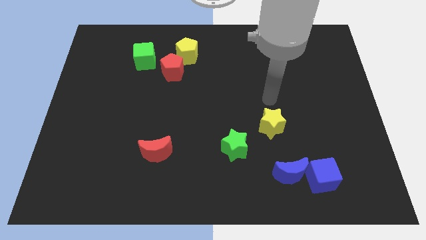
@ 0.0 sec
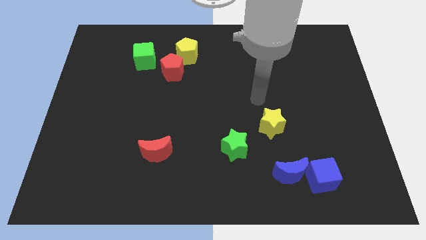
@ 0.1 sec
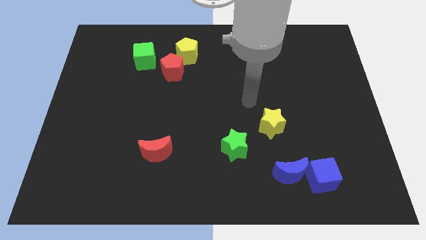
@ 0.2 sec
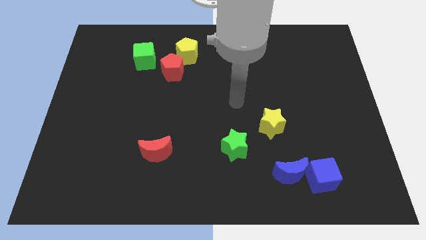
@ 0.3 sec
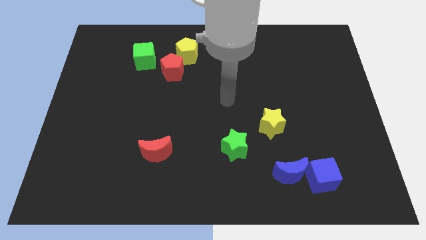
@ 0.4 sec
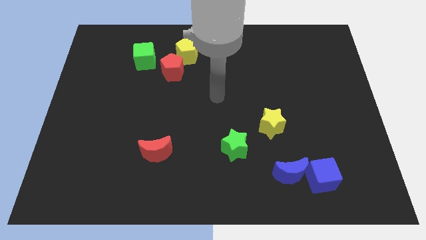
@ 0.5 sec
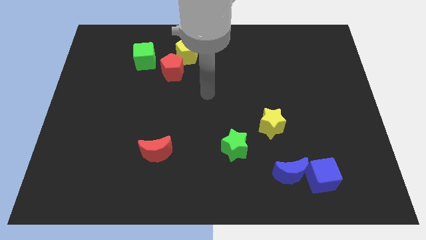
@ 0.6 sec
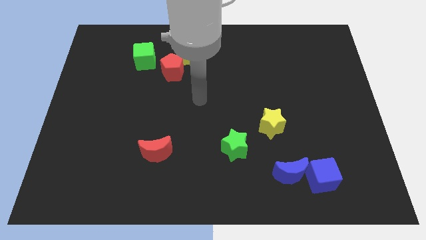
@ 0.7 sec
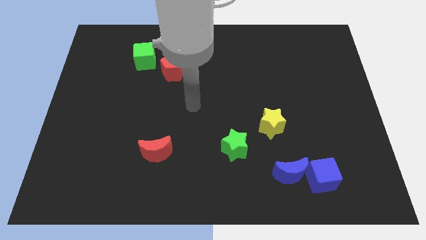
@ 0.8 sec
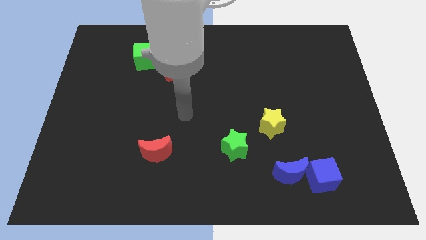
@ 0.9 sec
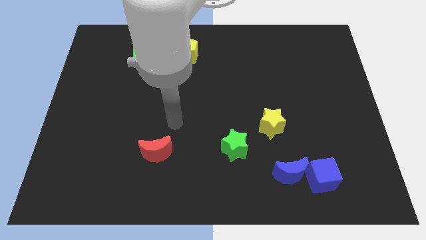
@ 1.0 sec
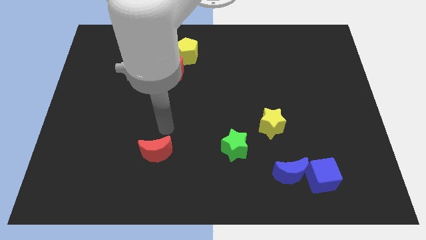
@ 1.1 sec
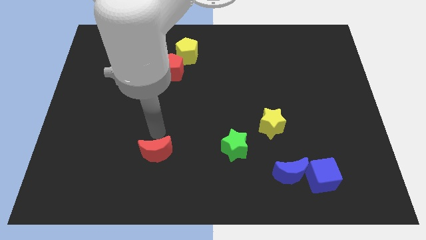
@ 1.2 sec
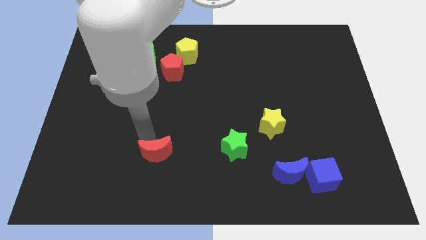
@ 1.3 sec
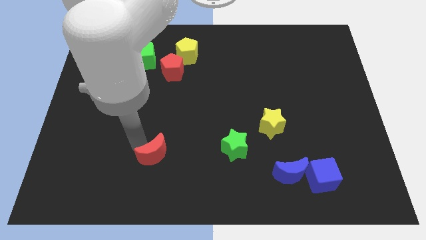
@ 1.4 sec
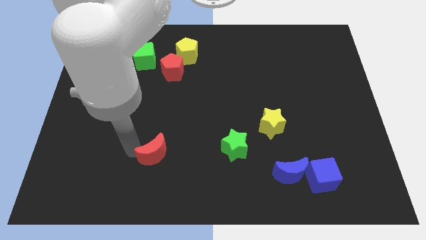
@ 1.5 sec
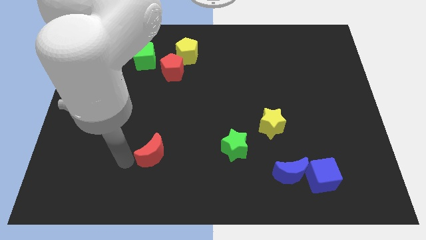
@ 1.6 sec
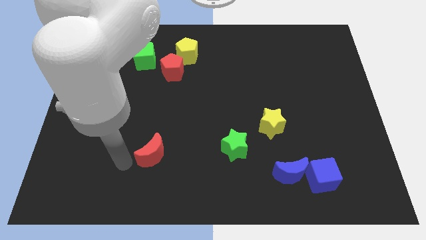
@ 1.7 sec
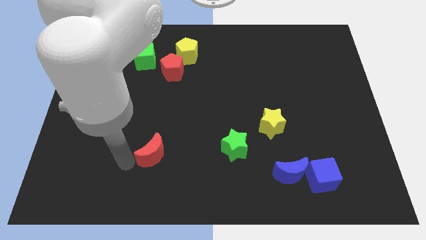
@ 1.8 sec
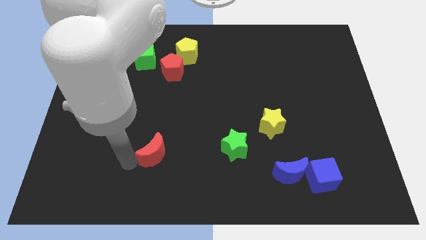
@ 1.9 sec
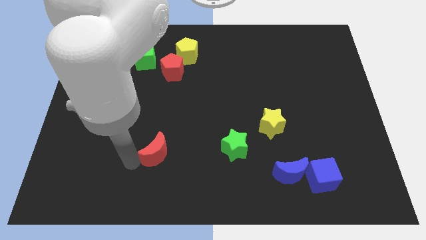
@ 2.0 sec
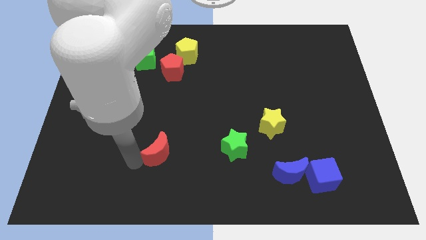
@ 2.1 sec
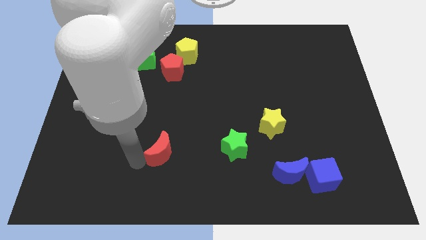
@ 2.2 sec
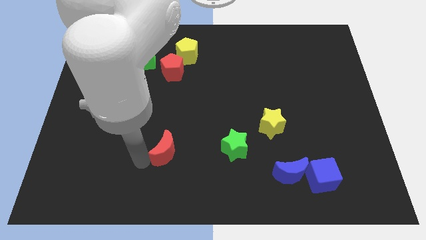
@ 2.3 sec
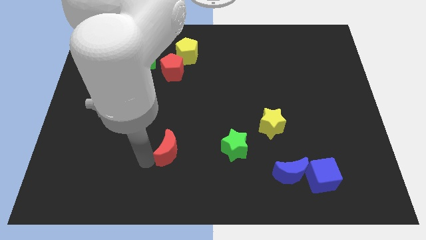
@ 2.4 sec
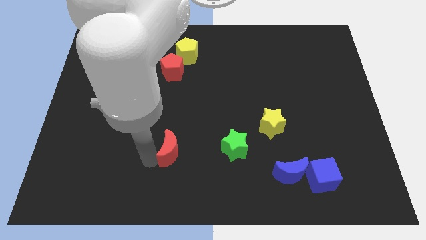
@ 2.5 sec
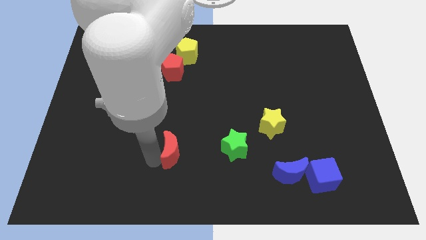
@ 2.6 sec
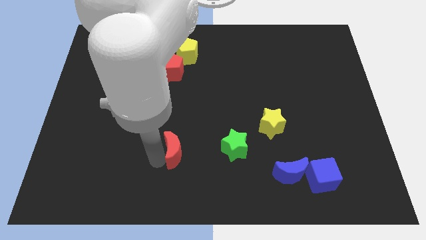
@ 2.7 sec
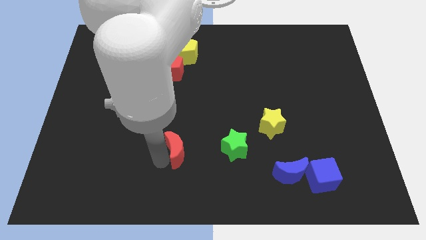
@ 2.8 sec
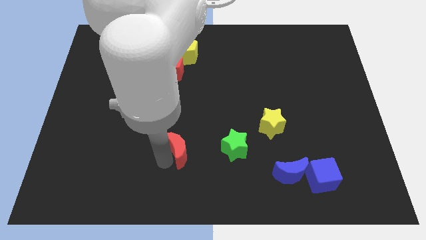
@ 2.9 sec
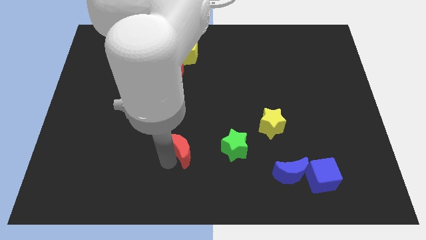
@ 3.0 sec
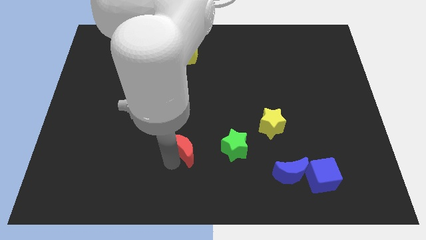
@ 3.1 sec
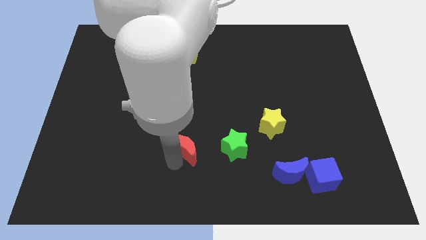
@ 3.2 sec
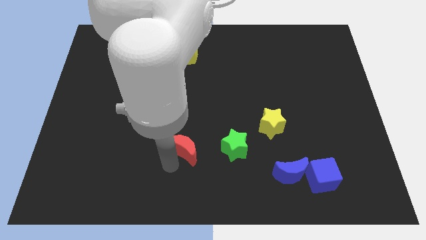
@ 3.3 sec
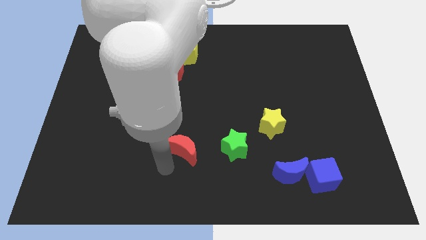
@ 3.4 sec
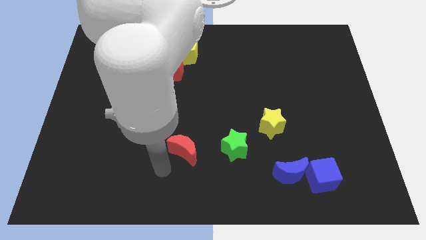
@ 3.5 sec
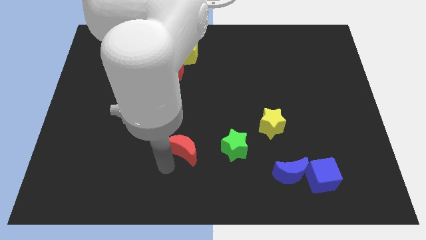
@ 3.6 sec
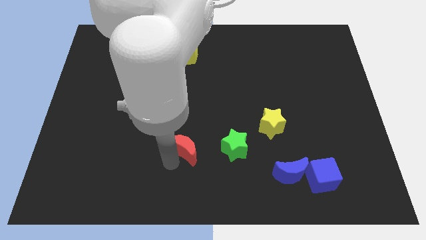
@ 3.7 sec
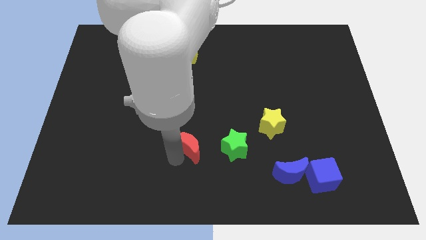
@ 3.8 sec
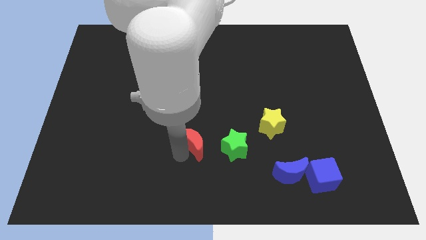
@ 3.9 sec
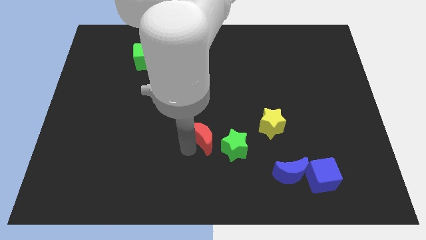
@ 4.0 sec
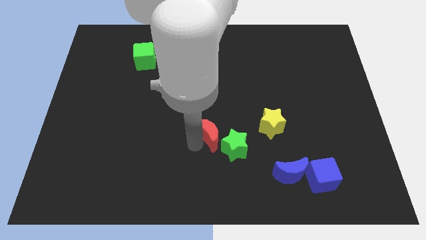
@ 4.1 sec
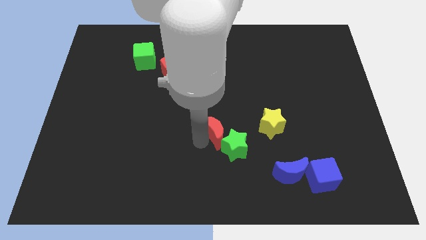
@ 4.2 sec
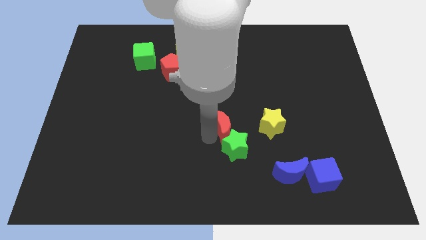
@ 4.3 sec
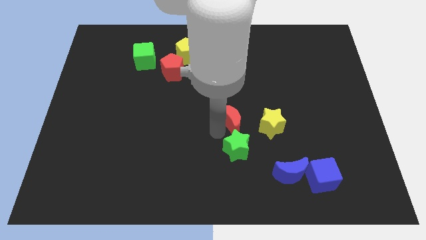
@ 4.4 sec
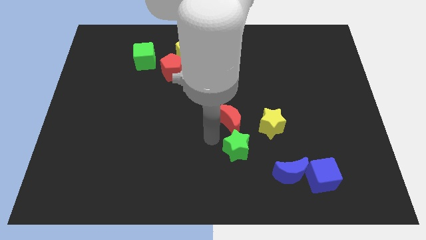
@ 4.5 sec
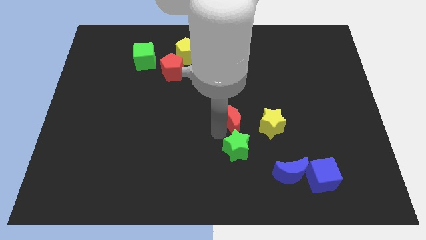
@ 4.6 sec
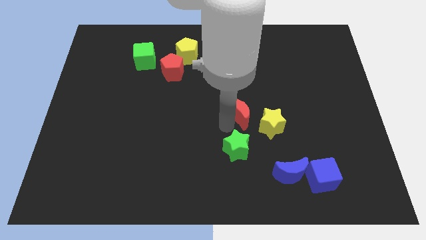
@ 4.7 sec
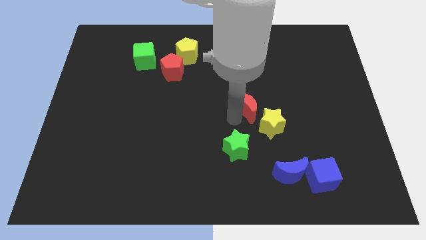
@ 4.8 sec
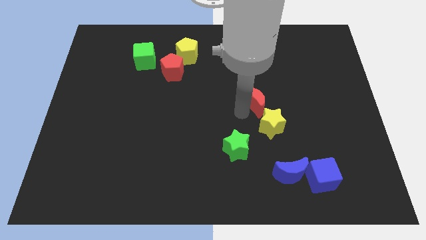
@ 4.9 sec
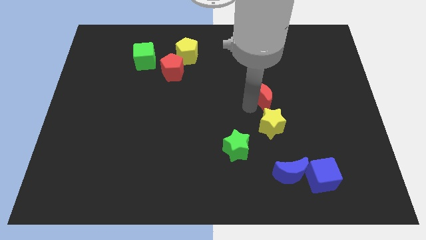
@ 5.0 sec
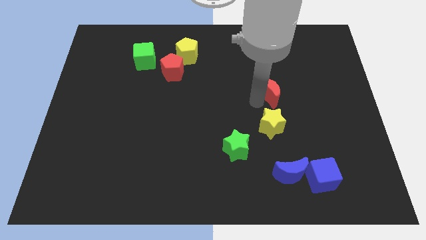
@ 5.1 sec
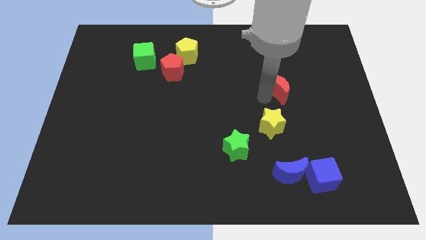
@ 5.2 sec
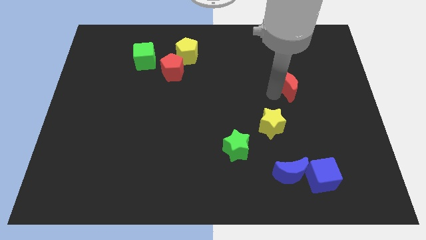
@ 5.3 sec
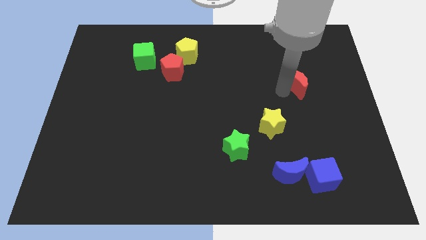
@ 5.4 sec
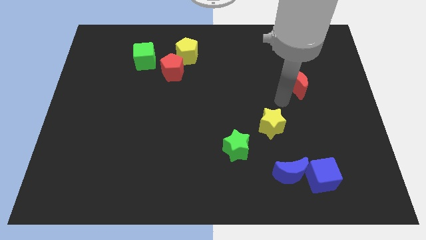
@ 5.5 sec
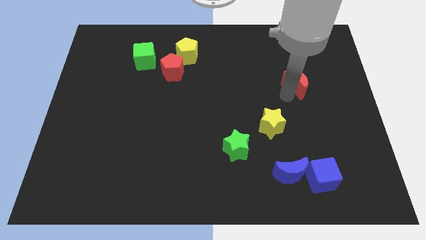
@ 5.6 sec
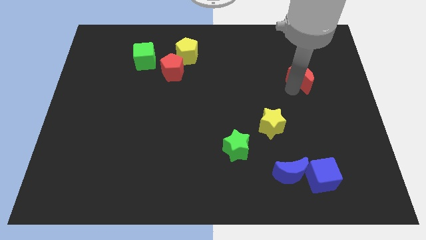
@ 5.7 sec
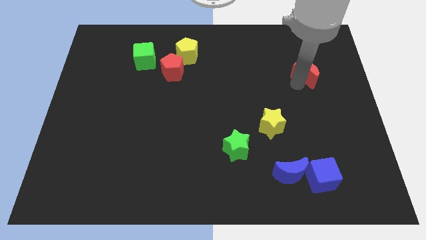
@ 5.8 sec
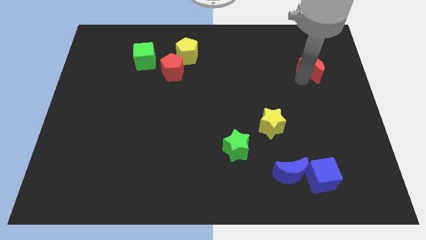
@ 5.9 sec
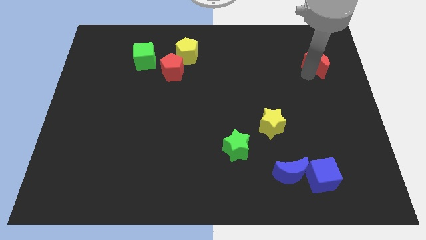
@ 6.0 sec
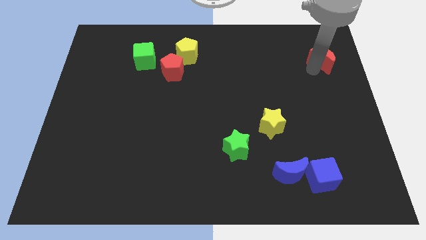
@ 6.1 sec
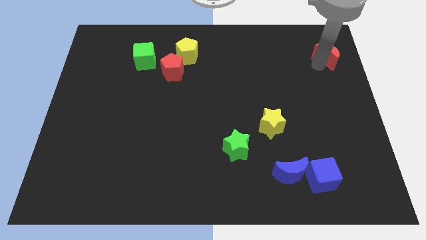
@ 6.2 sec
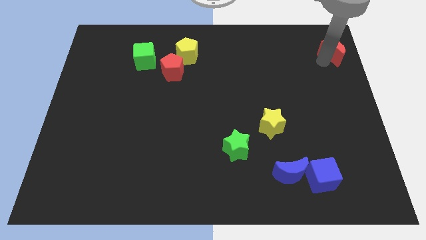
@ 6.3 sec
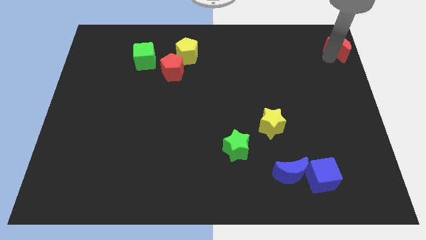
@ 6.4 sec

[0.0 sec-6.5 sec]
slide the red moon to the top right corner
